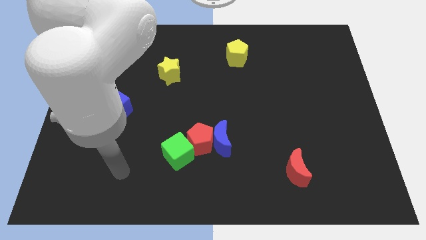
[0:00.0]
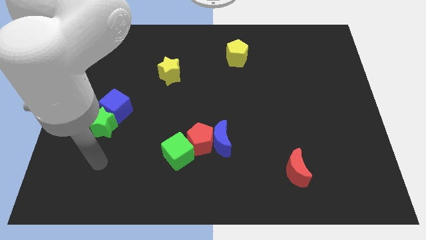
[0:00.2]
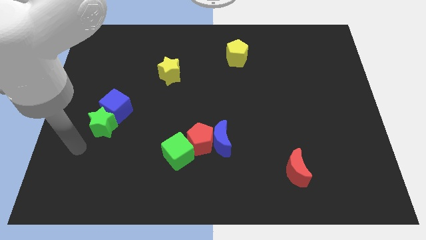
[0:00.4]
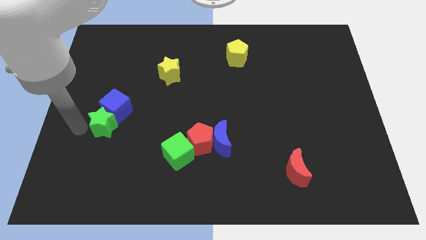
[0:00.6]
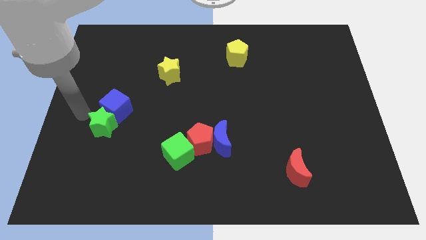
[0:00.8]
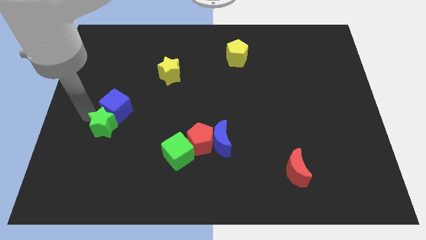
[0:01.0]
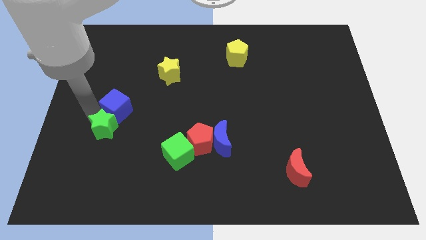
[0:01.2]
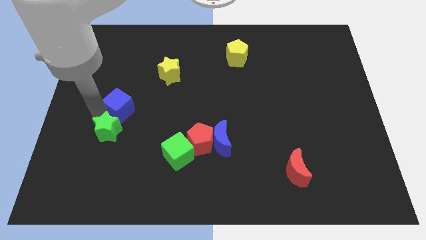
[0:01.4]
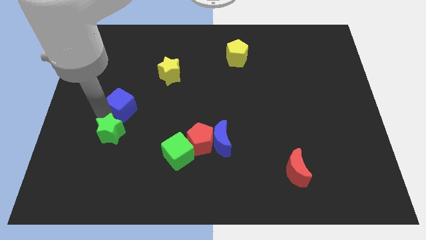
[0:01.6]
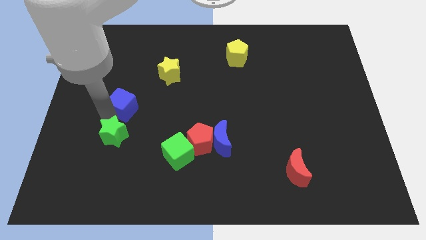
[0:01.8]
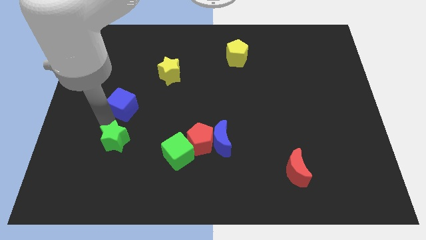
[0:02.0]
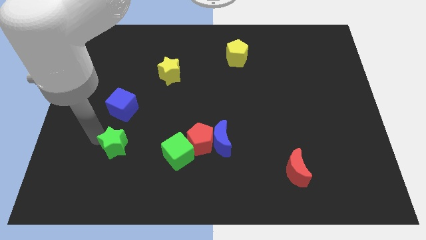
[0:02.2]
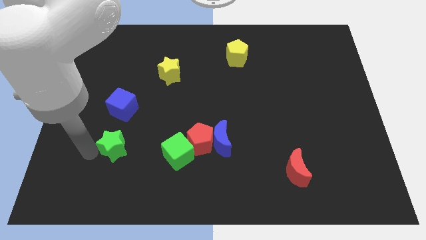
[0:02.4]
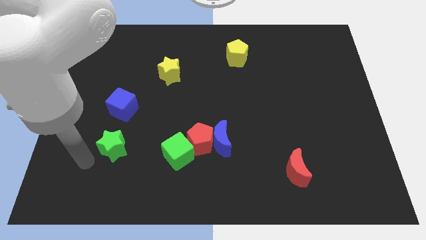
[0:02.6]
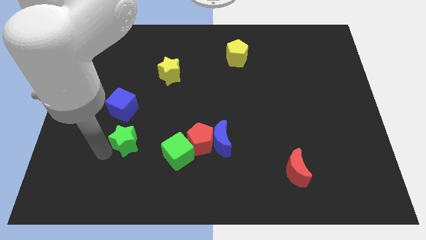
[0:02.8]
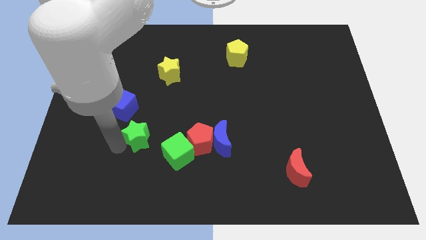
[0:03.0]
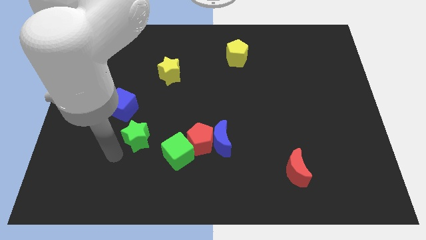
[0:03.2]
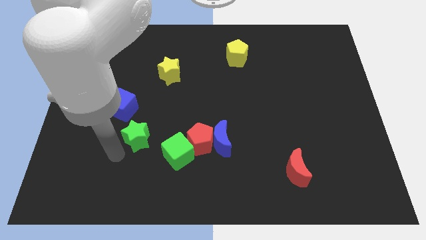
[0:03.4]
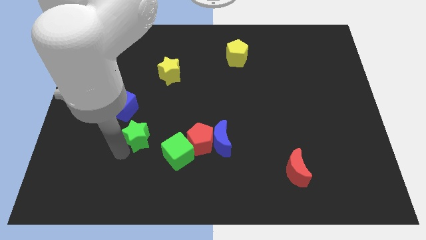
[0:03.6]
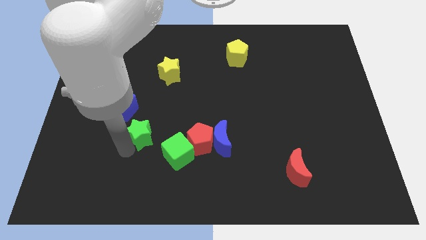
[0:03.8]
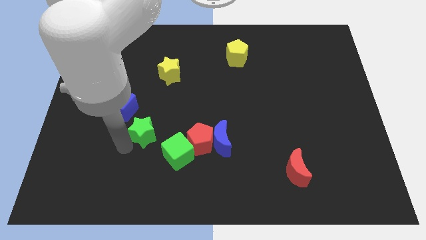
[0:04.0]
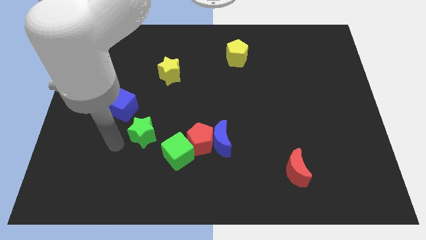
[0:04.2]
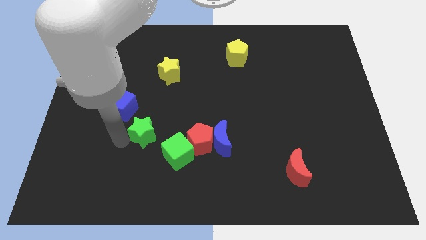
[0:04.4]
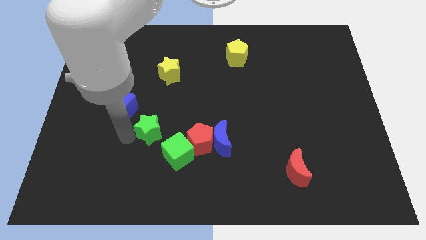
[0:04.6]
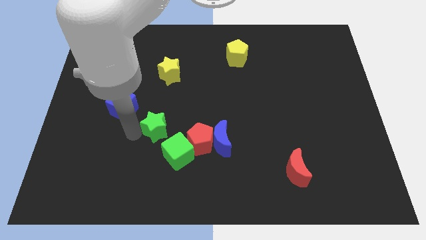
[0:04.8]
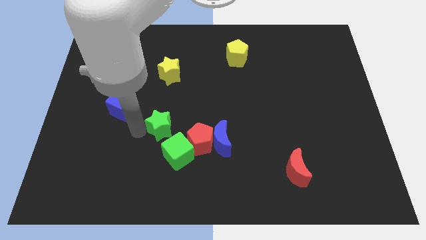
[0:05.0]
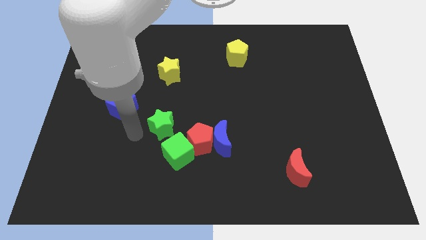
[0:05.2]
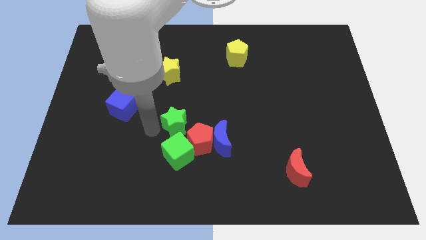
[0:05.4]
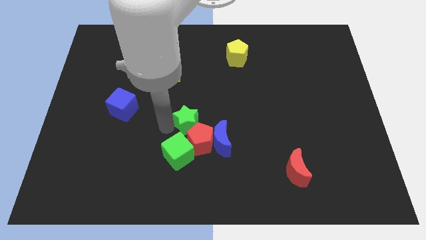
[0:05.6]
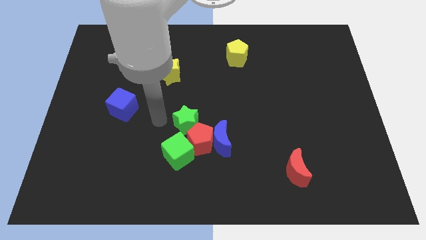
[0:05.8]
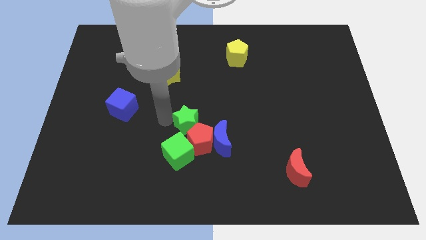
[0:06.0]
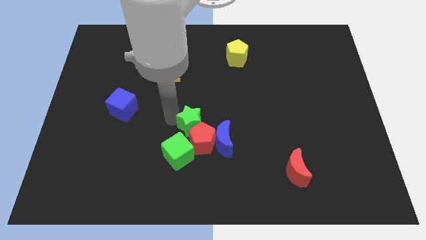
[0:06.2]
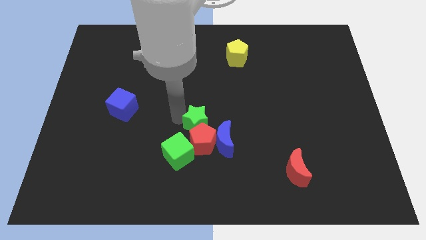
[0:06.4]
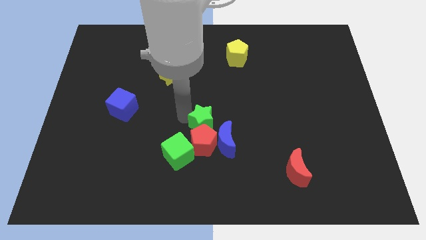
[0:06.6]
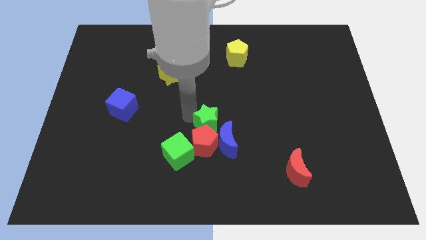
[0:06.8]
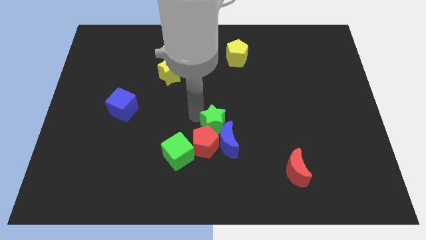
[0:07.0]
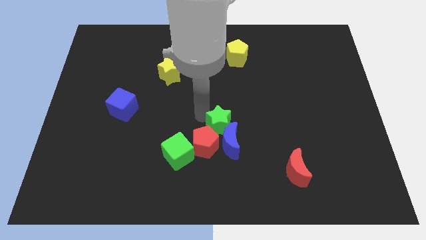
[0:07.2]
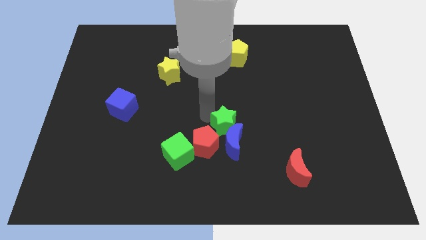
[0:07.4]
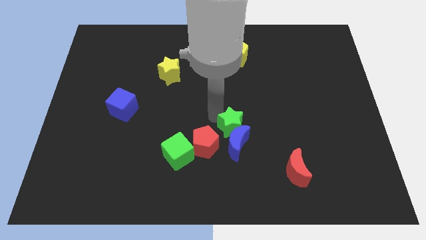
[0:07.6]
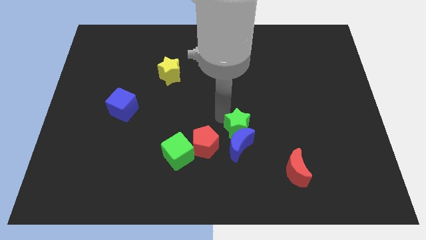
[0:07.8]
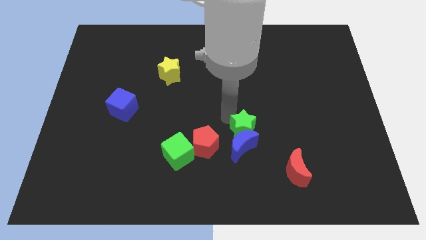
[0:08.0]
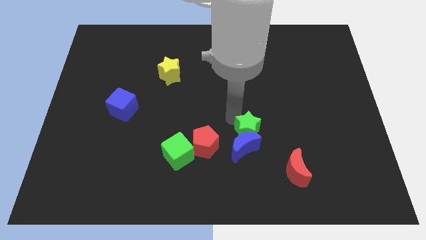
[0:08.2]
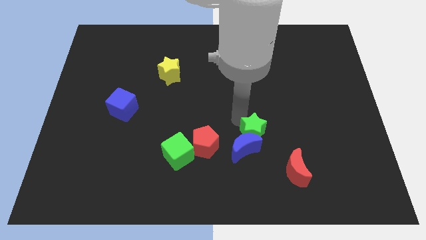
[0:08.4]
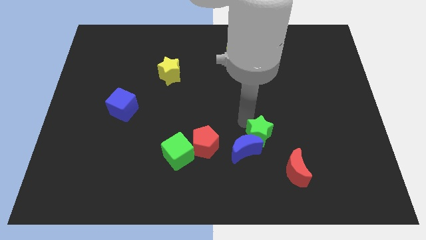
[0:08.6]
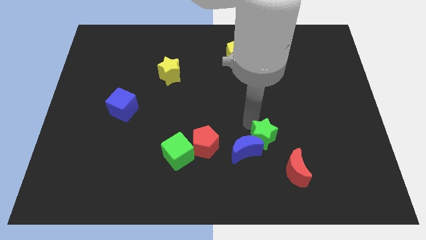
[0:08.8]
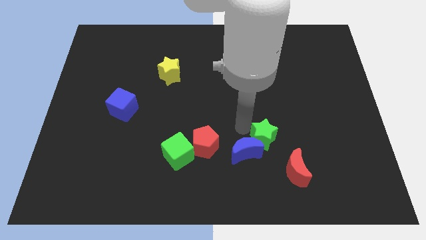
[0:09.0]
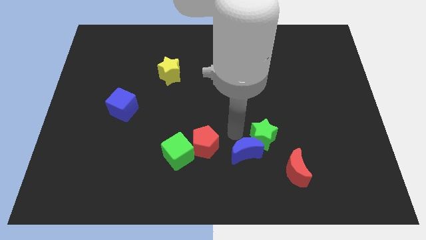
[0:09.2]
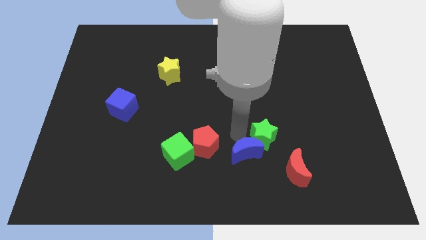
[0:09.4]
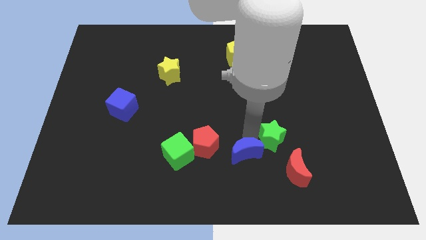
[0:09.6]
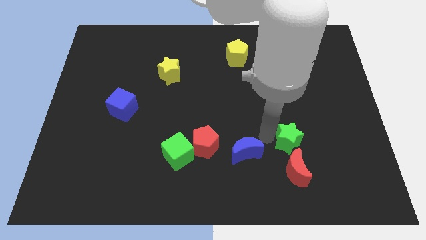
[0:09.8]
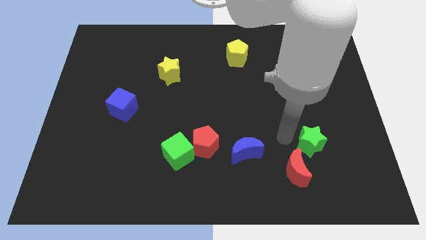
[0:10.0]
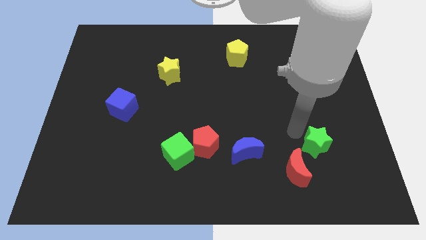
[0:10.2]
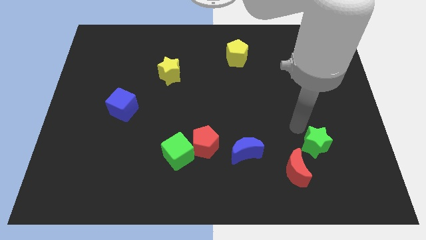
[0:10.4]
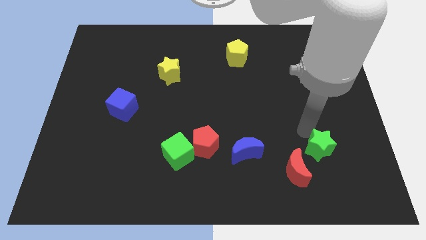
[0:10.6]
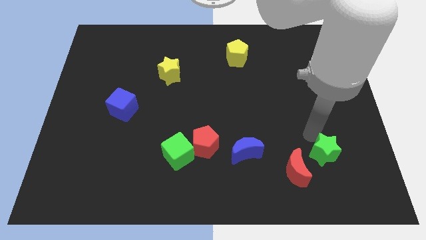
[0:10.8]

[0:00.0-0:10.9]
push the green star just right of the red moon
